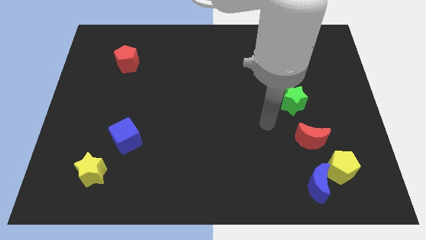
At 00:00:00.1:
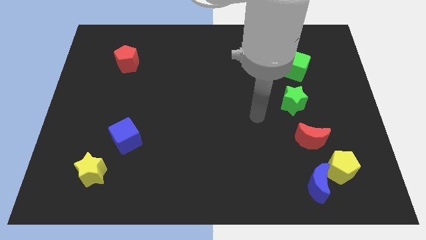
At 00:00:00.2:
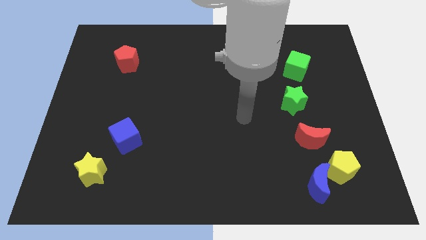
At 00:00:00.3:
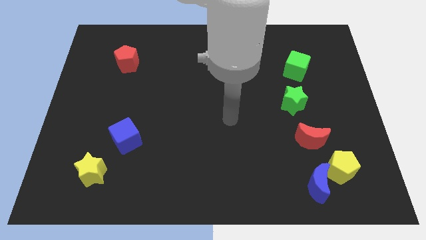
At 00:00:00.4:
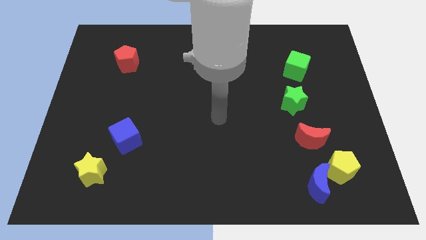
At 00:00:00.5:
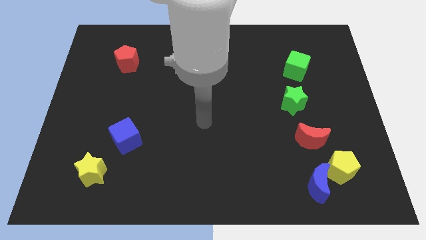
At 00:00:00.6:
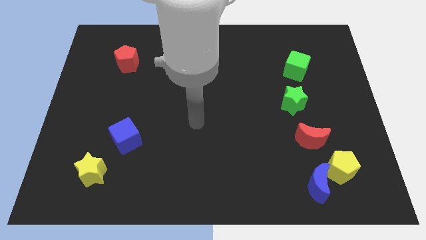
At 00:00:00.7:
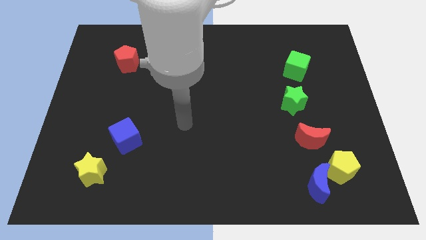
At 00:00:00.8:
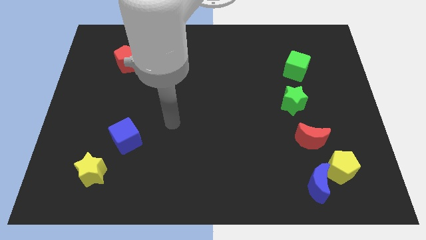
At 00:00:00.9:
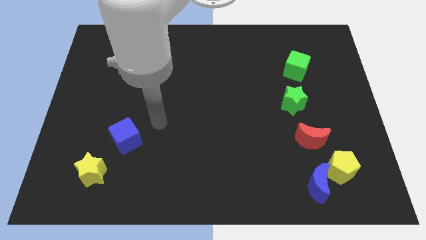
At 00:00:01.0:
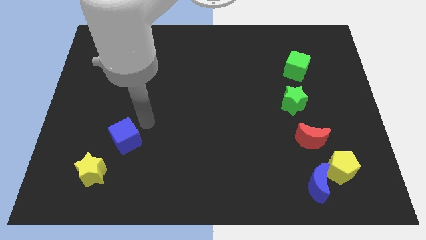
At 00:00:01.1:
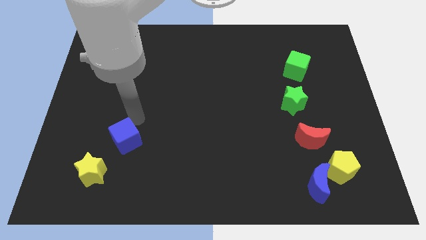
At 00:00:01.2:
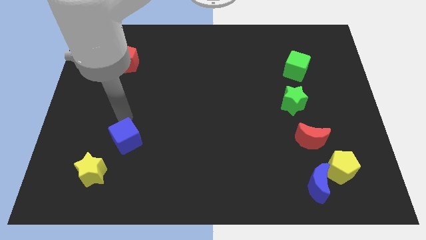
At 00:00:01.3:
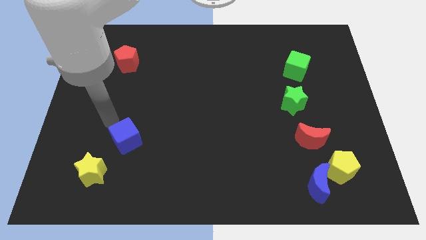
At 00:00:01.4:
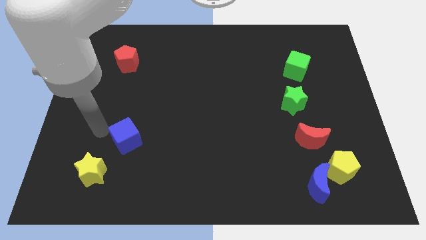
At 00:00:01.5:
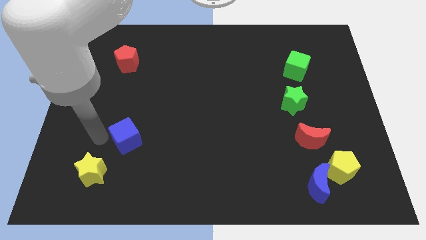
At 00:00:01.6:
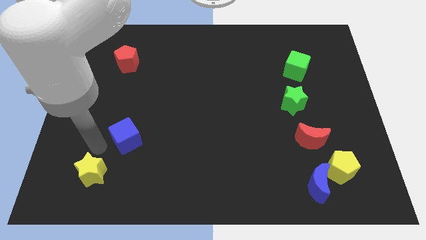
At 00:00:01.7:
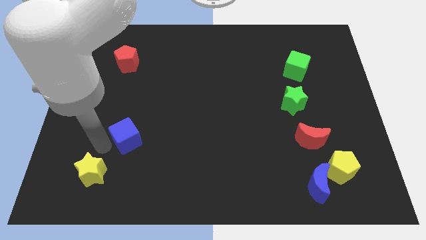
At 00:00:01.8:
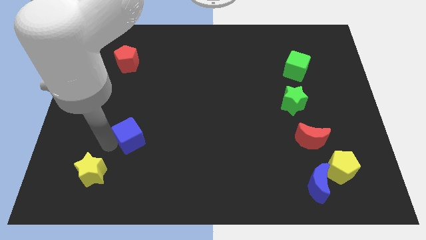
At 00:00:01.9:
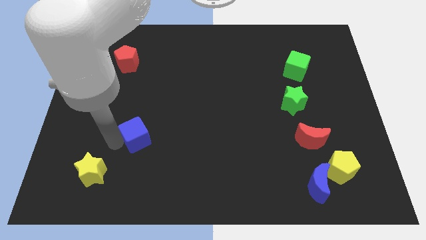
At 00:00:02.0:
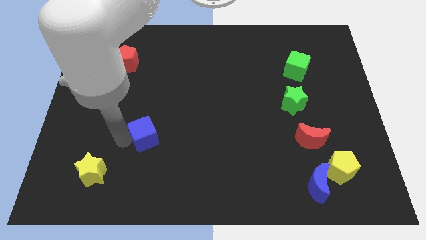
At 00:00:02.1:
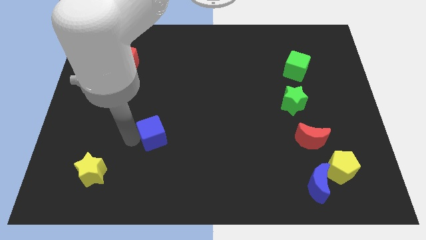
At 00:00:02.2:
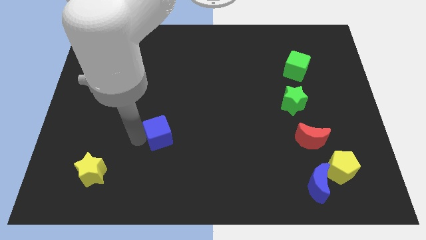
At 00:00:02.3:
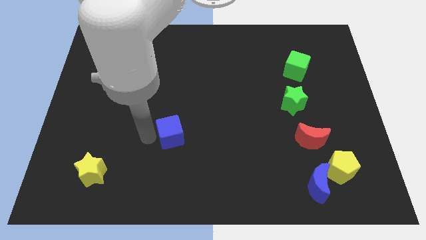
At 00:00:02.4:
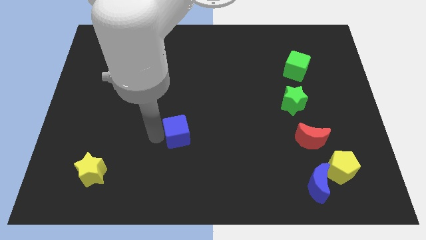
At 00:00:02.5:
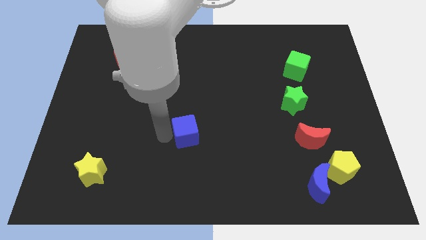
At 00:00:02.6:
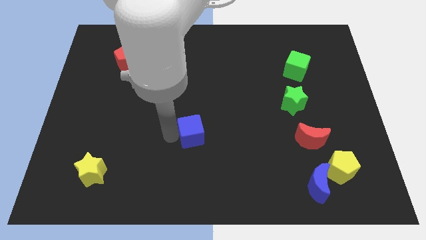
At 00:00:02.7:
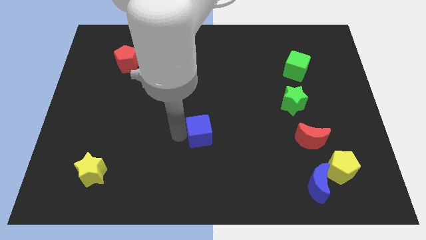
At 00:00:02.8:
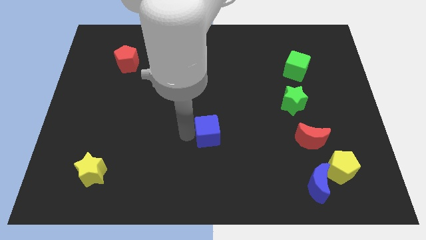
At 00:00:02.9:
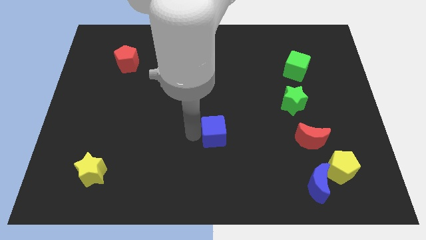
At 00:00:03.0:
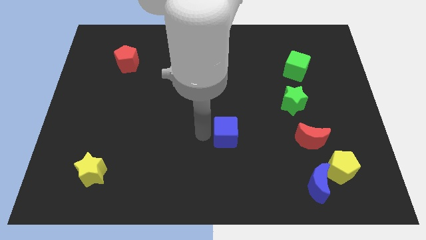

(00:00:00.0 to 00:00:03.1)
move the blue cube right

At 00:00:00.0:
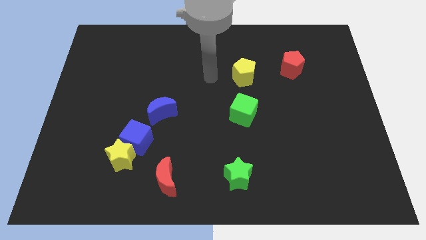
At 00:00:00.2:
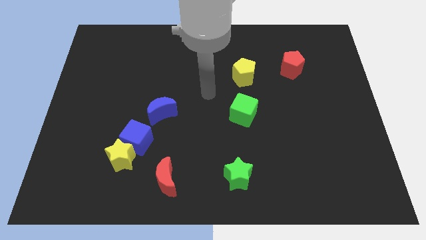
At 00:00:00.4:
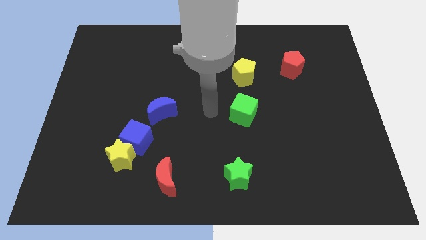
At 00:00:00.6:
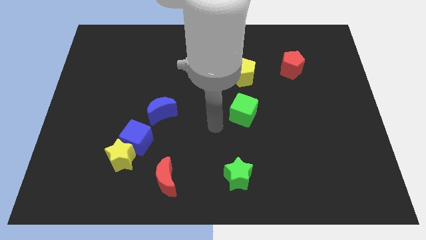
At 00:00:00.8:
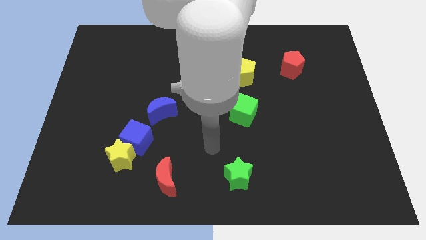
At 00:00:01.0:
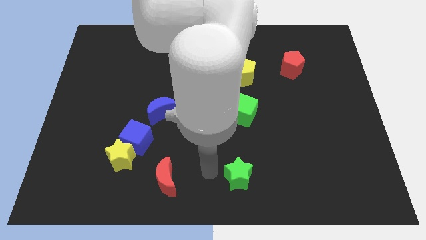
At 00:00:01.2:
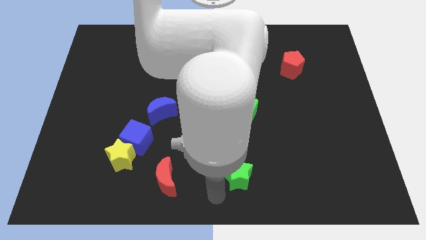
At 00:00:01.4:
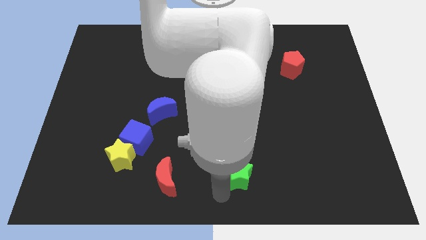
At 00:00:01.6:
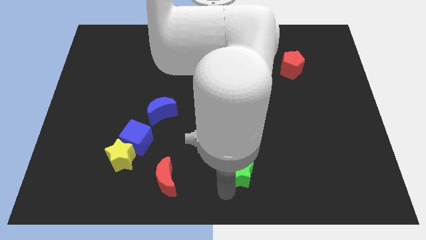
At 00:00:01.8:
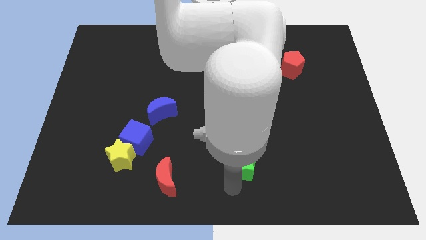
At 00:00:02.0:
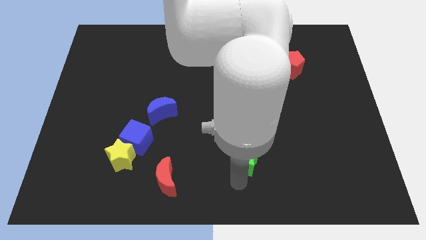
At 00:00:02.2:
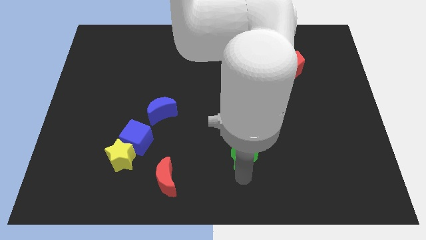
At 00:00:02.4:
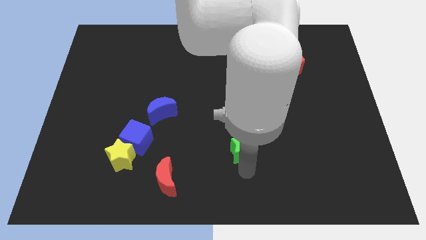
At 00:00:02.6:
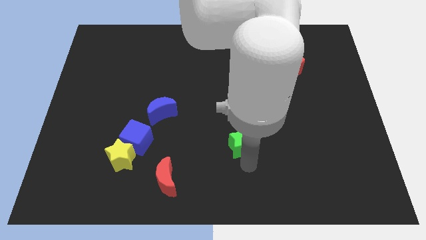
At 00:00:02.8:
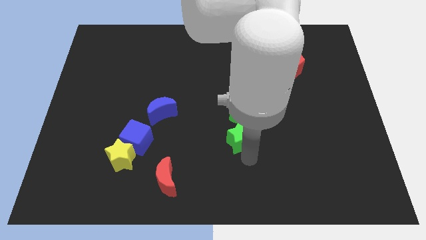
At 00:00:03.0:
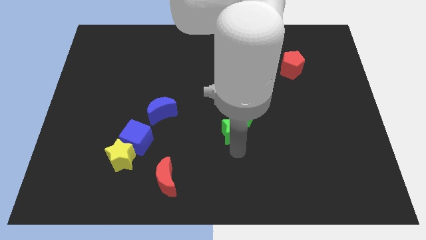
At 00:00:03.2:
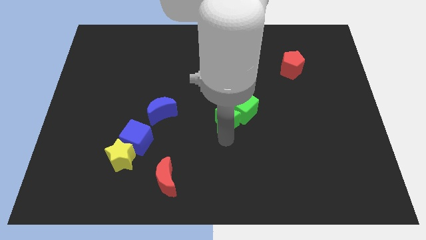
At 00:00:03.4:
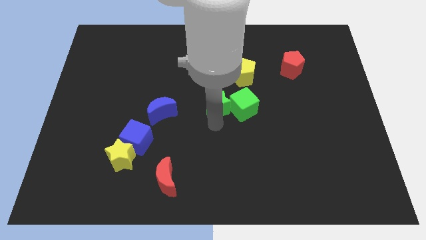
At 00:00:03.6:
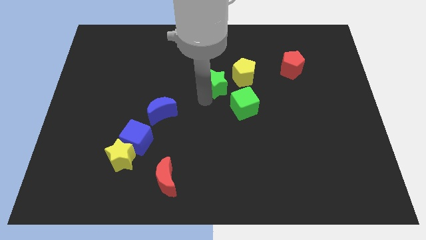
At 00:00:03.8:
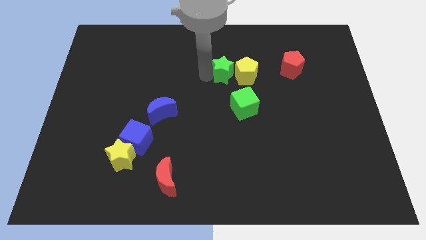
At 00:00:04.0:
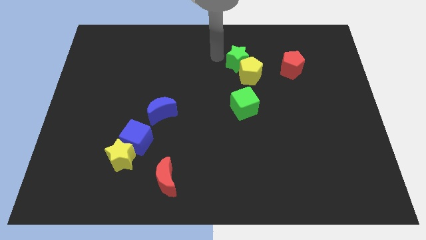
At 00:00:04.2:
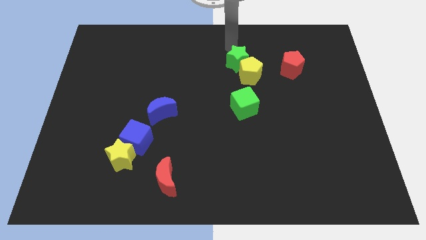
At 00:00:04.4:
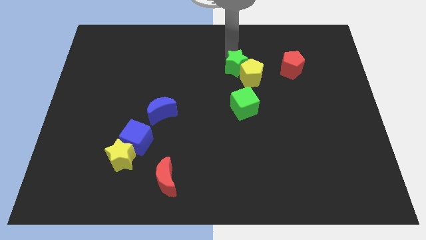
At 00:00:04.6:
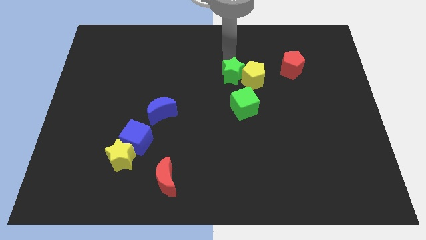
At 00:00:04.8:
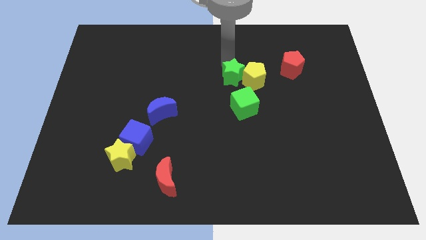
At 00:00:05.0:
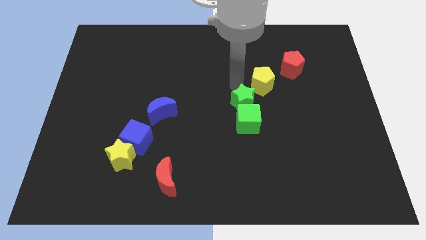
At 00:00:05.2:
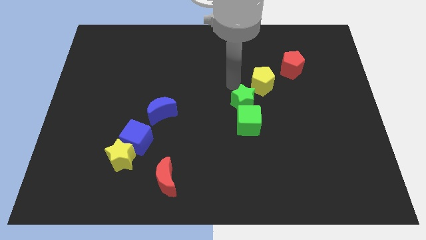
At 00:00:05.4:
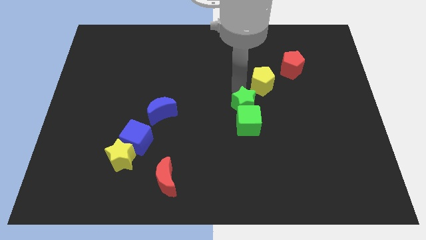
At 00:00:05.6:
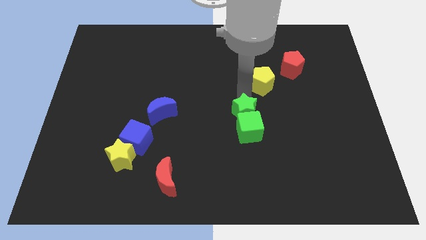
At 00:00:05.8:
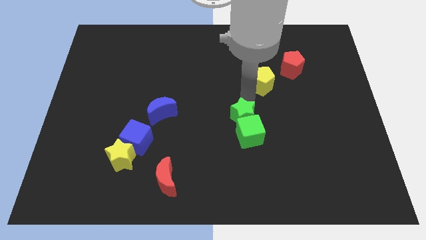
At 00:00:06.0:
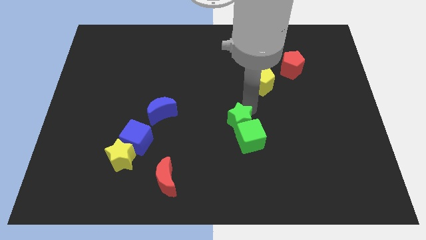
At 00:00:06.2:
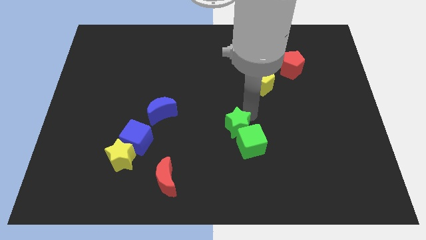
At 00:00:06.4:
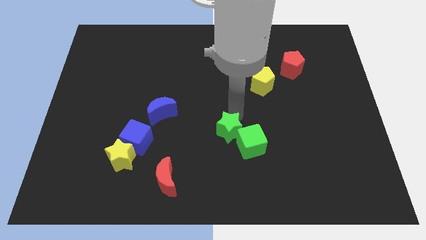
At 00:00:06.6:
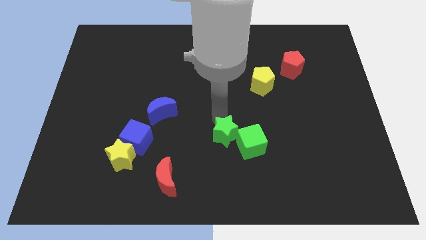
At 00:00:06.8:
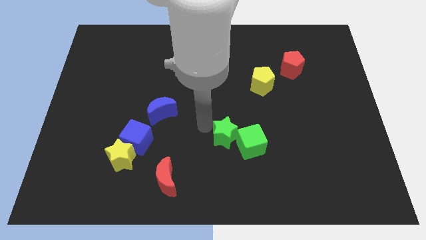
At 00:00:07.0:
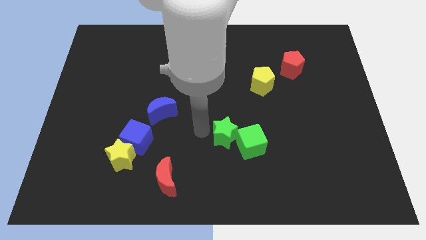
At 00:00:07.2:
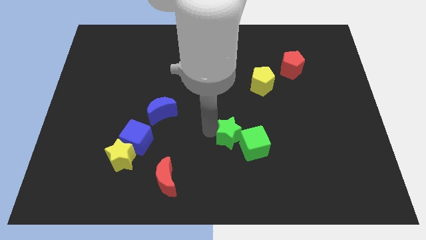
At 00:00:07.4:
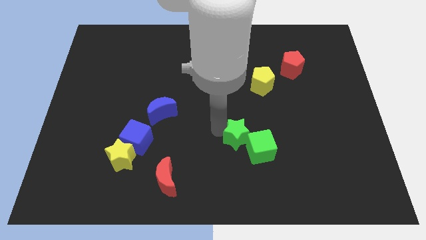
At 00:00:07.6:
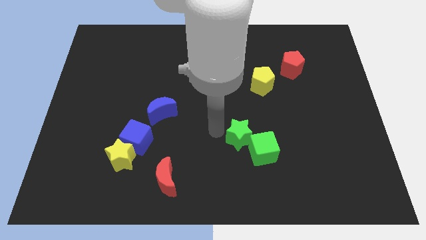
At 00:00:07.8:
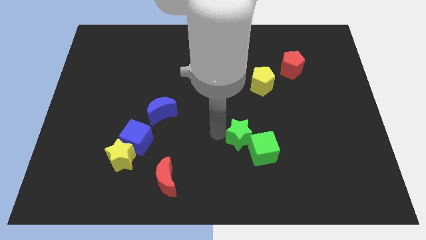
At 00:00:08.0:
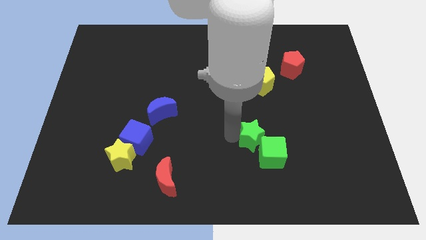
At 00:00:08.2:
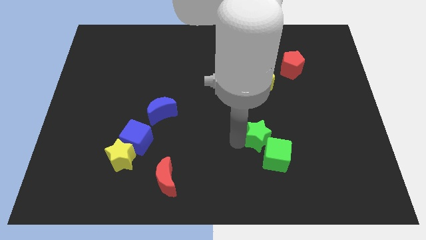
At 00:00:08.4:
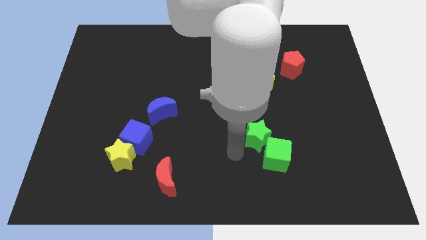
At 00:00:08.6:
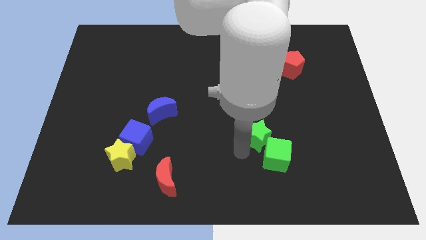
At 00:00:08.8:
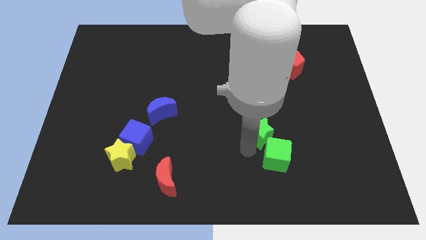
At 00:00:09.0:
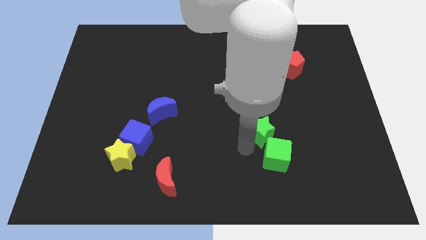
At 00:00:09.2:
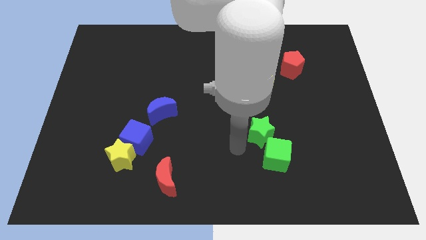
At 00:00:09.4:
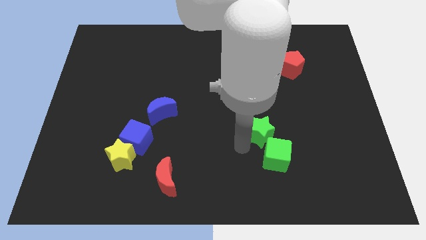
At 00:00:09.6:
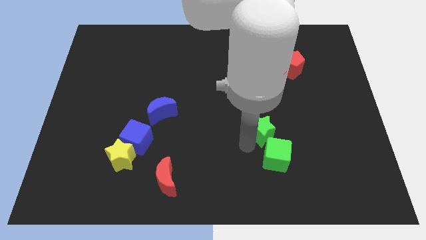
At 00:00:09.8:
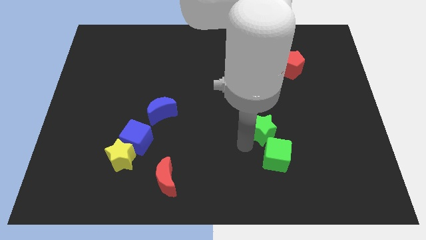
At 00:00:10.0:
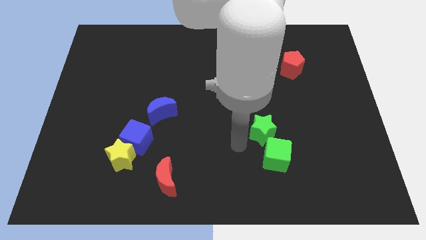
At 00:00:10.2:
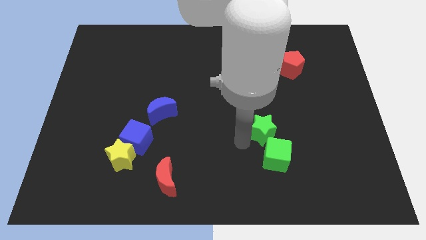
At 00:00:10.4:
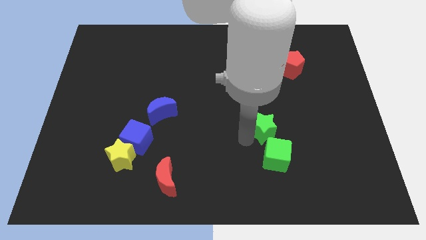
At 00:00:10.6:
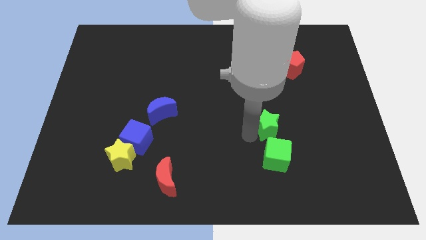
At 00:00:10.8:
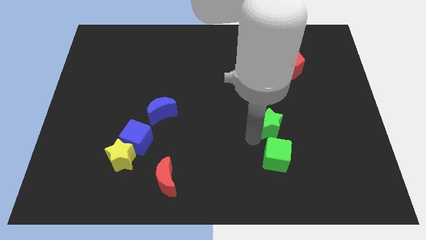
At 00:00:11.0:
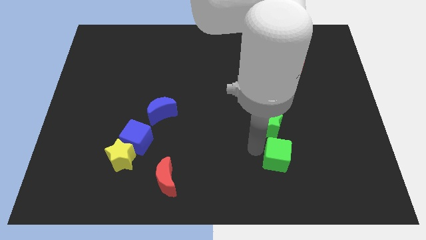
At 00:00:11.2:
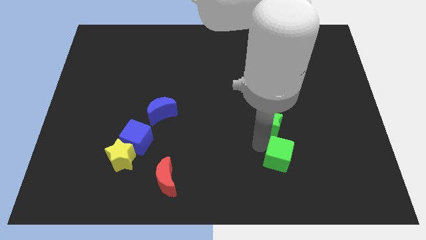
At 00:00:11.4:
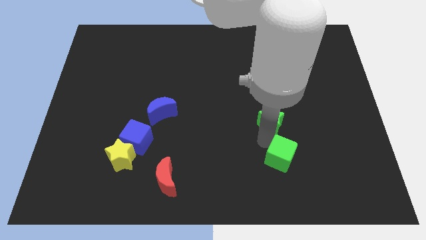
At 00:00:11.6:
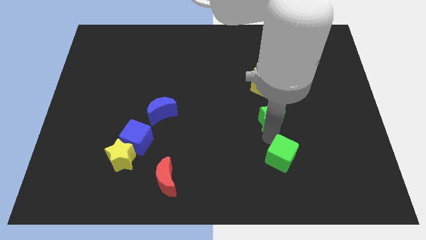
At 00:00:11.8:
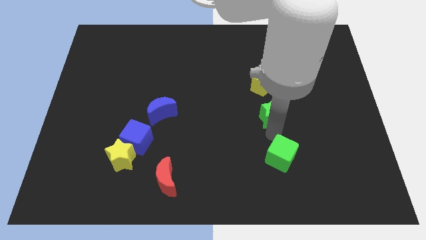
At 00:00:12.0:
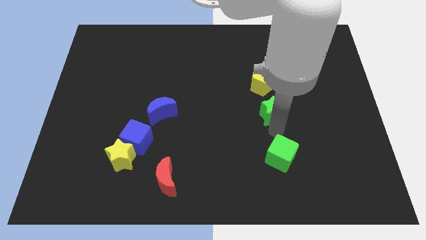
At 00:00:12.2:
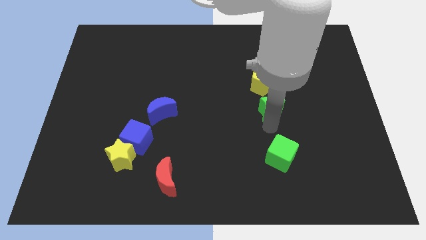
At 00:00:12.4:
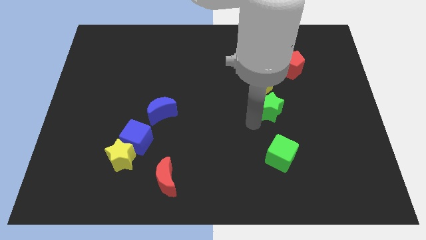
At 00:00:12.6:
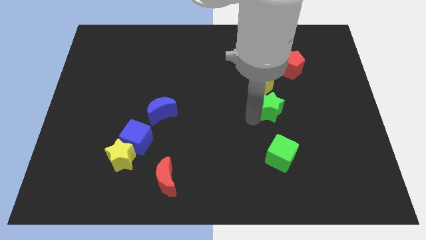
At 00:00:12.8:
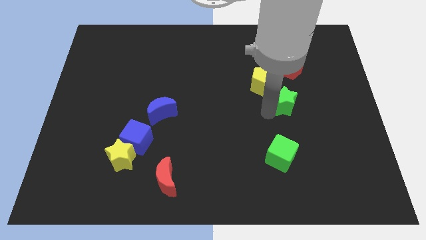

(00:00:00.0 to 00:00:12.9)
move the green star diagonally upwards and right
